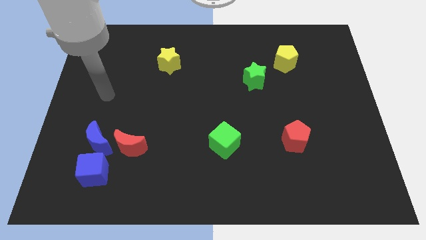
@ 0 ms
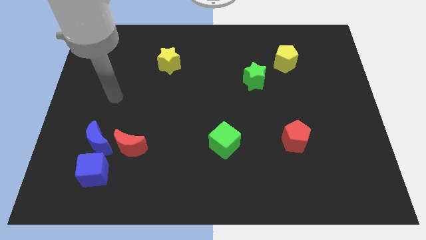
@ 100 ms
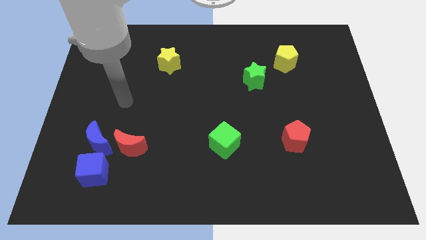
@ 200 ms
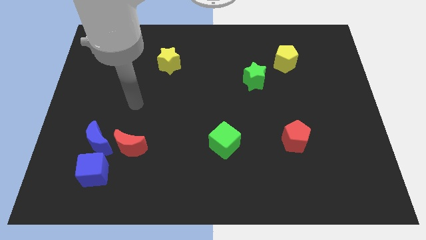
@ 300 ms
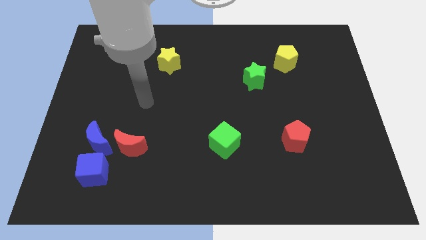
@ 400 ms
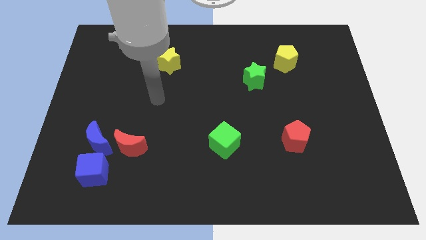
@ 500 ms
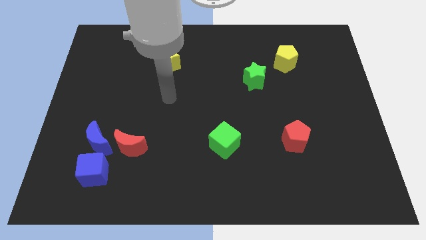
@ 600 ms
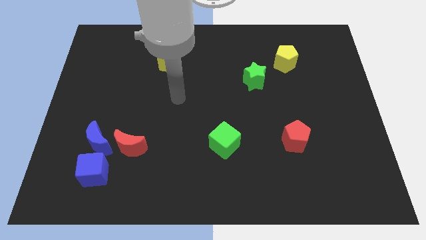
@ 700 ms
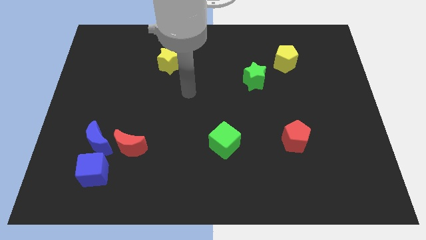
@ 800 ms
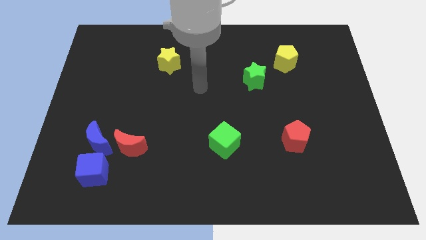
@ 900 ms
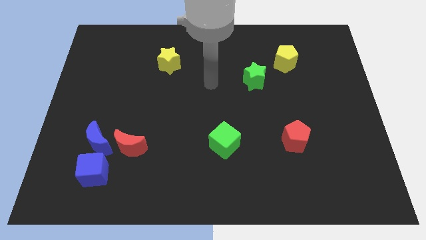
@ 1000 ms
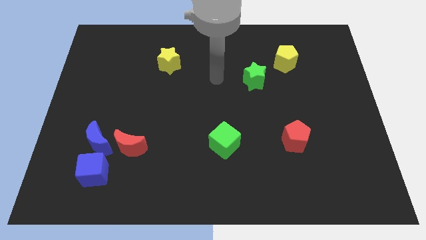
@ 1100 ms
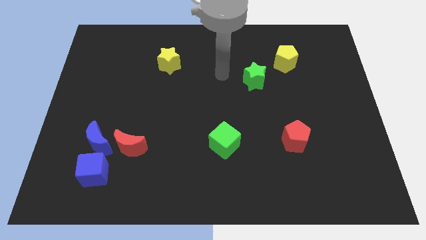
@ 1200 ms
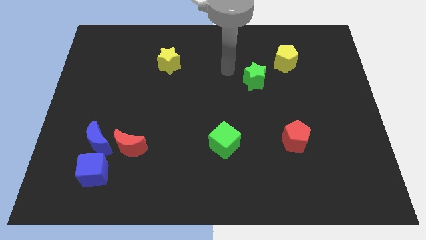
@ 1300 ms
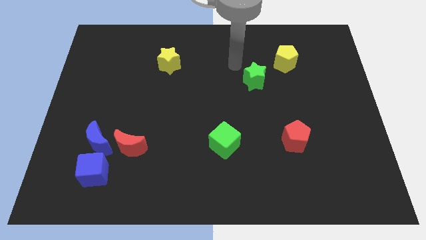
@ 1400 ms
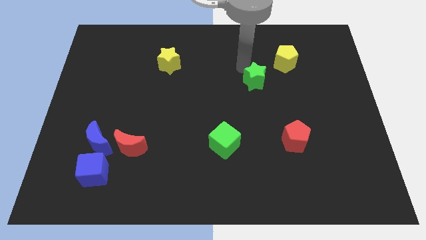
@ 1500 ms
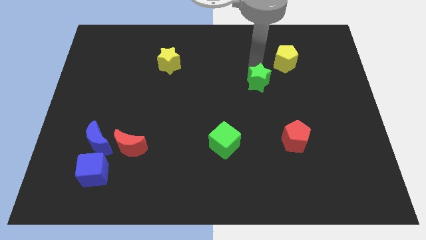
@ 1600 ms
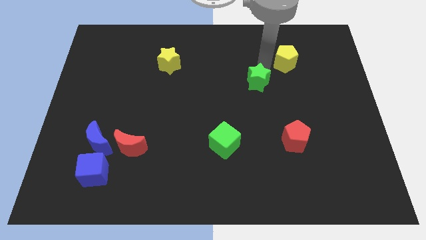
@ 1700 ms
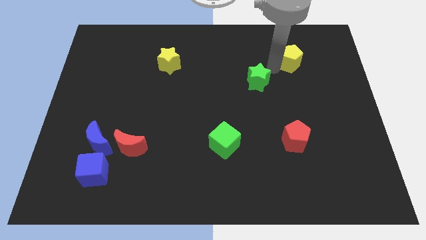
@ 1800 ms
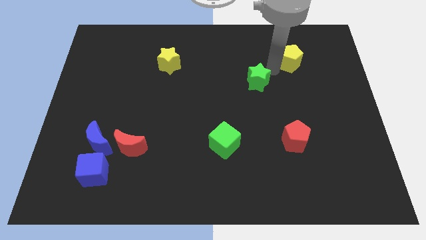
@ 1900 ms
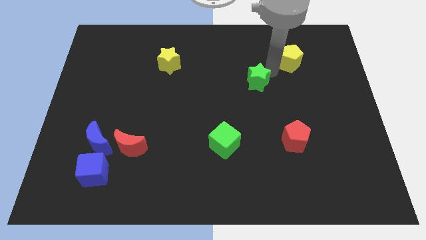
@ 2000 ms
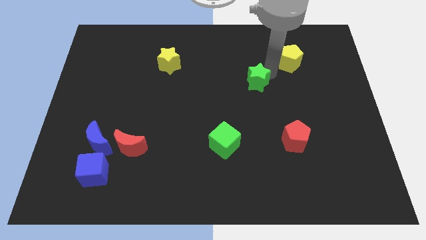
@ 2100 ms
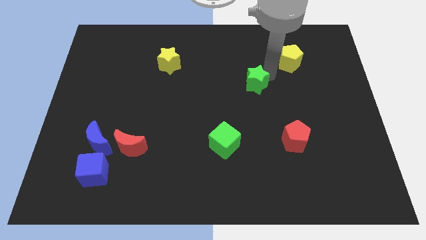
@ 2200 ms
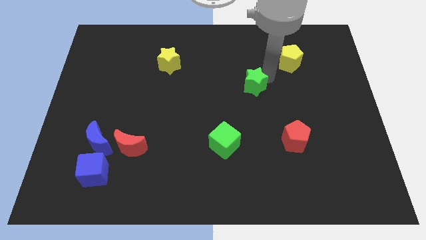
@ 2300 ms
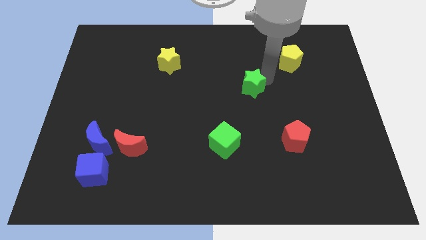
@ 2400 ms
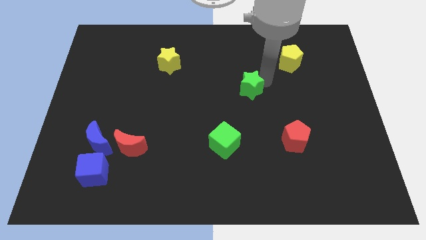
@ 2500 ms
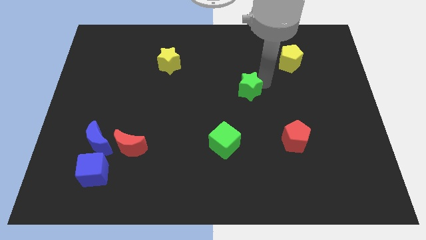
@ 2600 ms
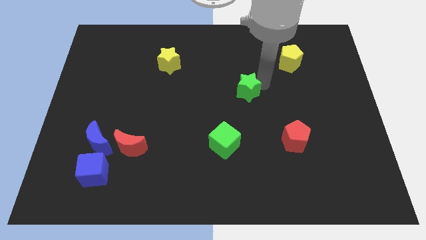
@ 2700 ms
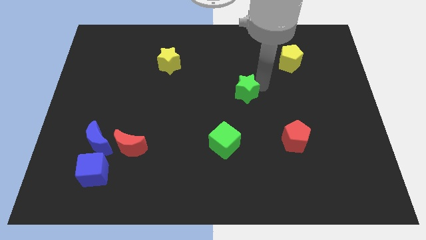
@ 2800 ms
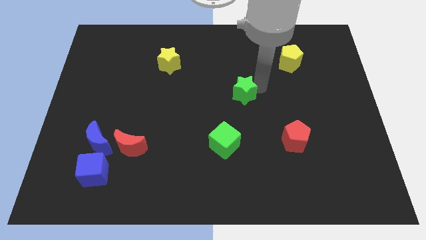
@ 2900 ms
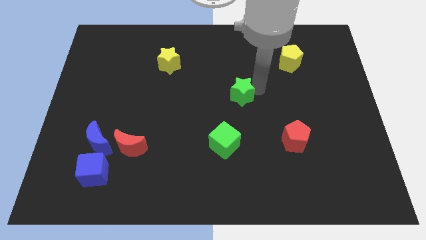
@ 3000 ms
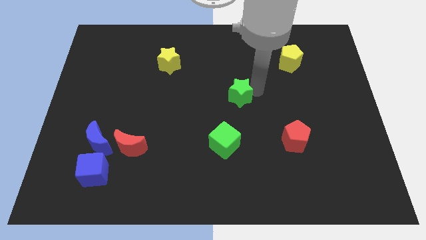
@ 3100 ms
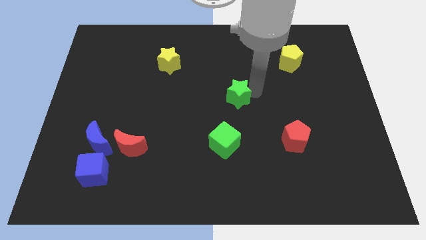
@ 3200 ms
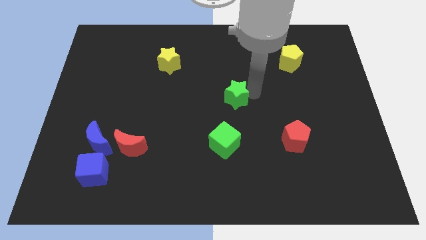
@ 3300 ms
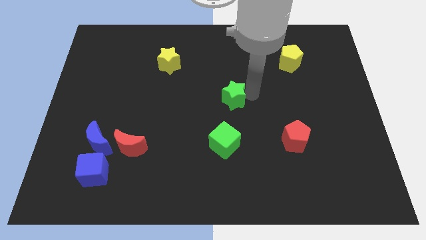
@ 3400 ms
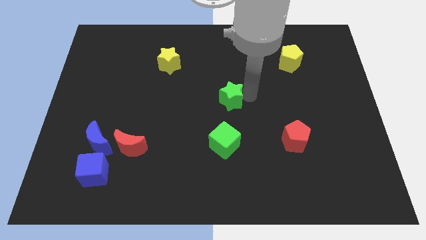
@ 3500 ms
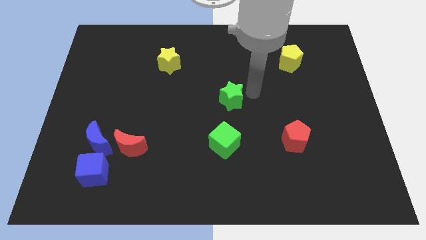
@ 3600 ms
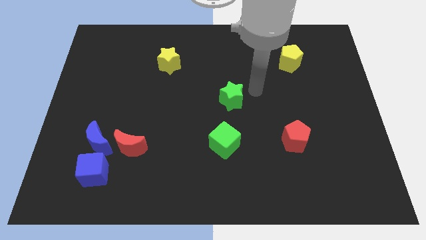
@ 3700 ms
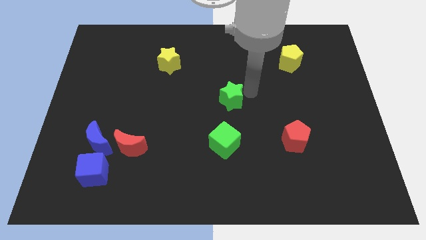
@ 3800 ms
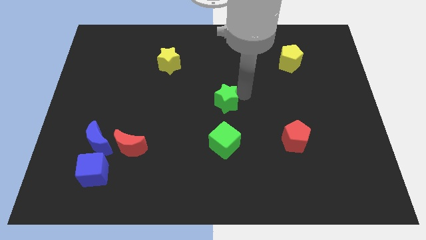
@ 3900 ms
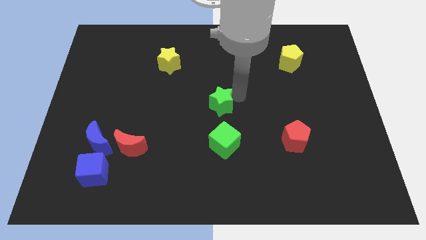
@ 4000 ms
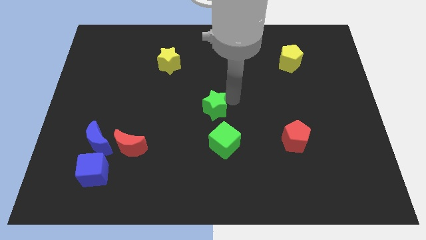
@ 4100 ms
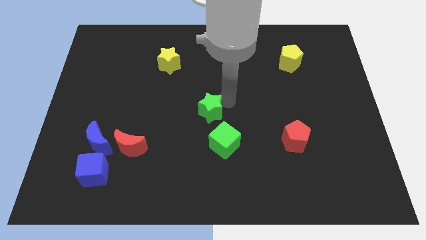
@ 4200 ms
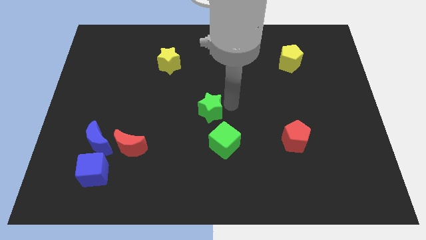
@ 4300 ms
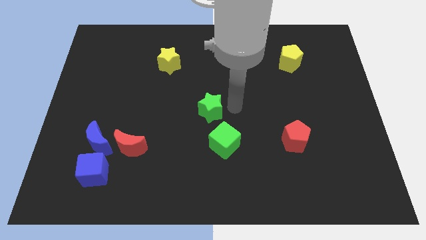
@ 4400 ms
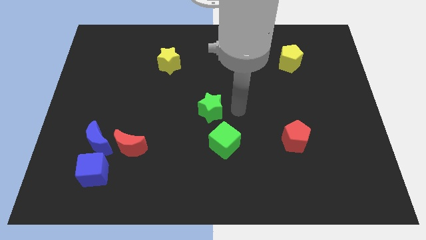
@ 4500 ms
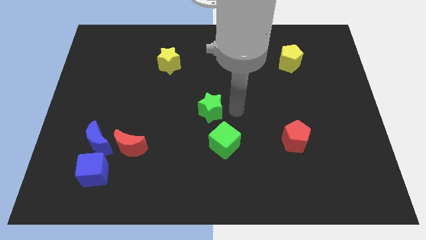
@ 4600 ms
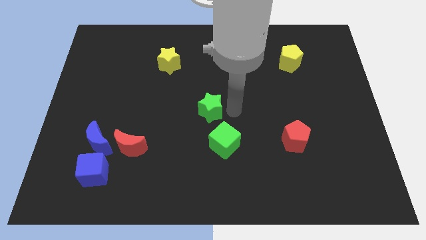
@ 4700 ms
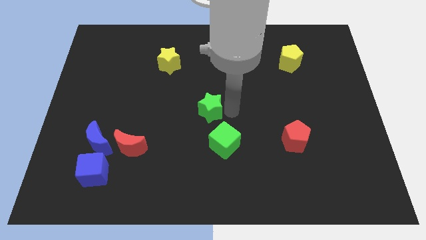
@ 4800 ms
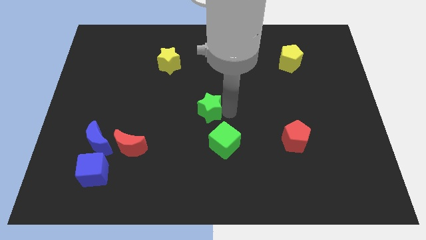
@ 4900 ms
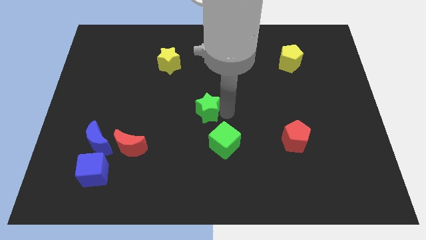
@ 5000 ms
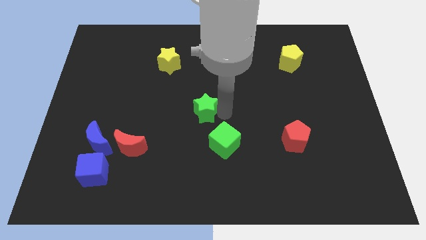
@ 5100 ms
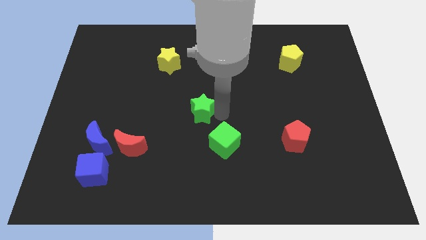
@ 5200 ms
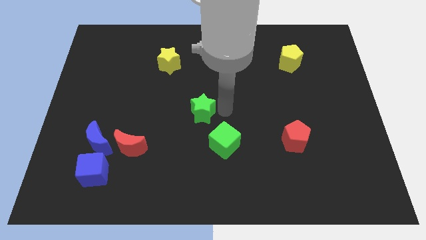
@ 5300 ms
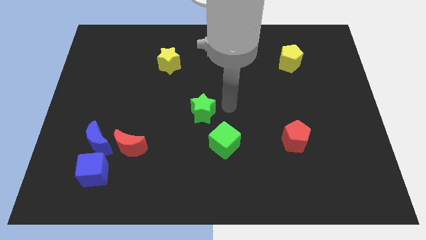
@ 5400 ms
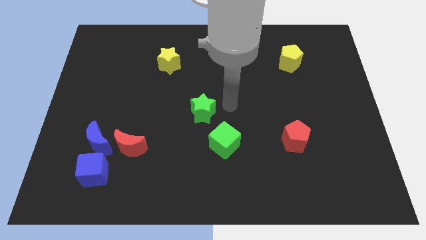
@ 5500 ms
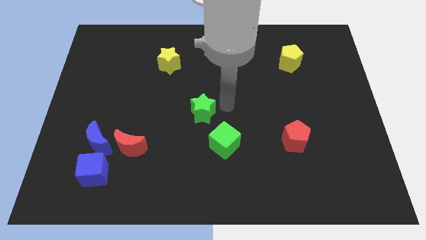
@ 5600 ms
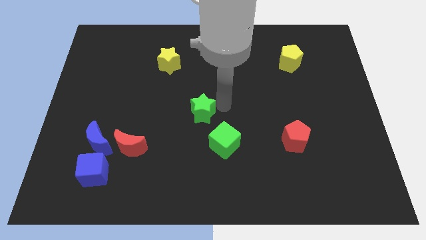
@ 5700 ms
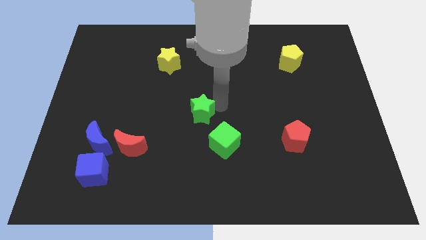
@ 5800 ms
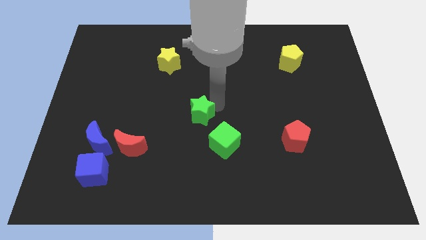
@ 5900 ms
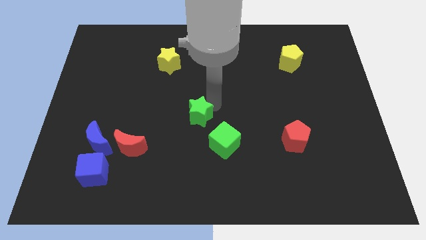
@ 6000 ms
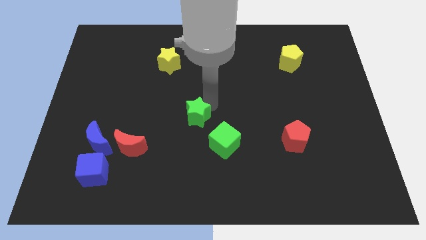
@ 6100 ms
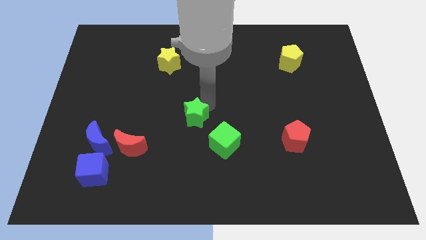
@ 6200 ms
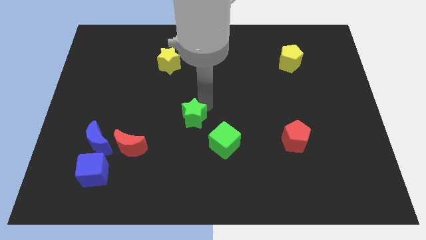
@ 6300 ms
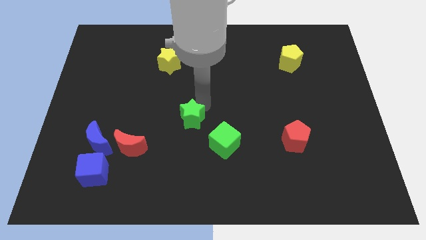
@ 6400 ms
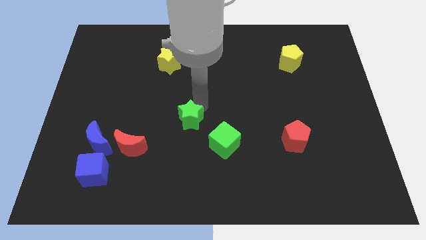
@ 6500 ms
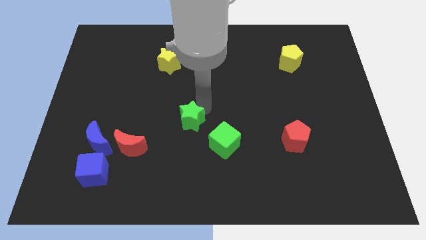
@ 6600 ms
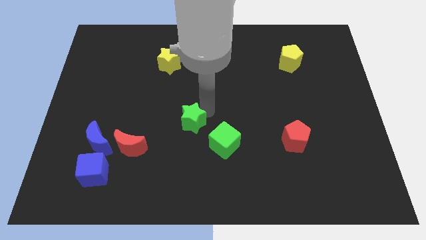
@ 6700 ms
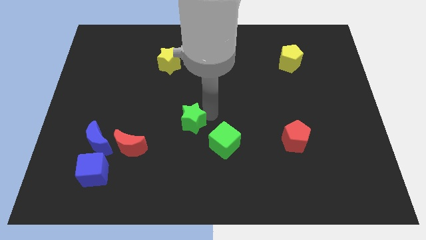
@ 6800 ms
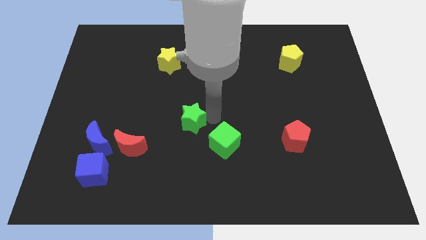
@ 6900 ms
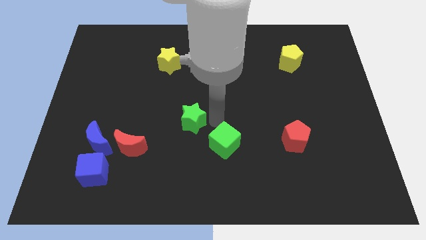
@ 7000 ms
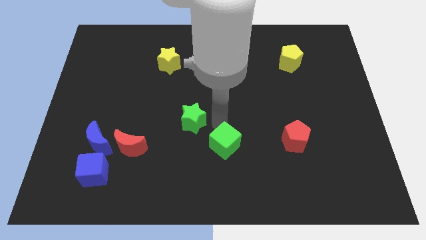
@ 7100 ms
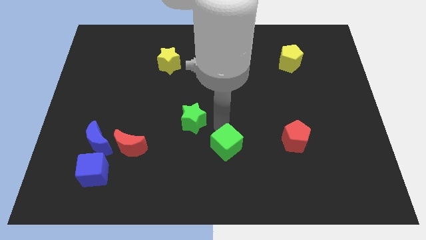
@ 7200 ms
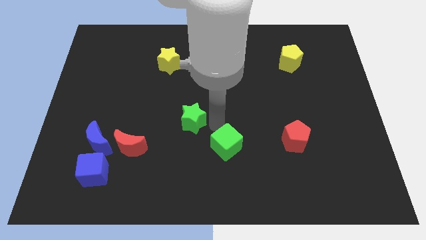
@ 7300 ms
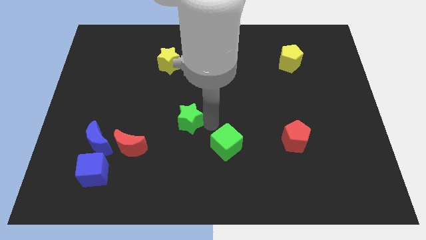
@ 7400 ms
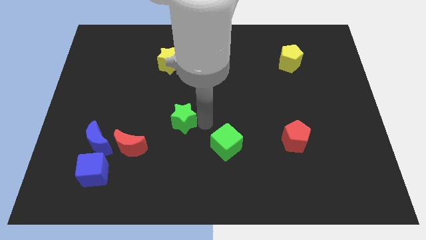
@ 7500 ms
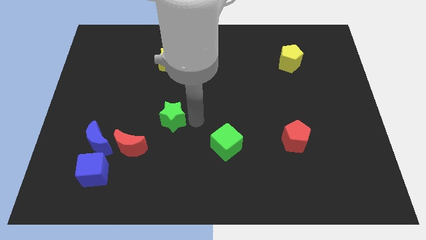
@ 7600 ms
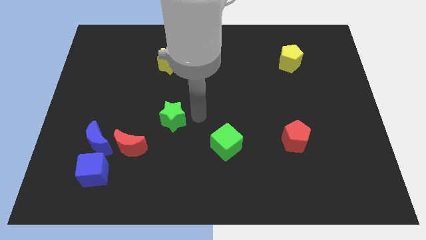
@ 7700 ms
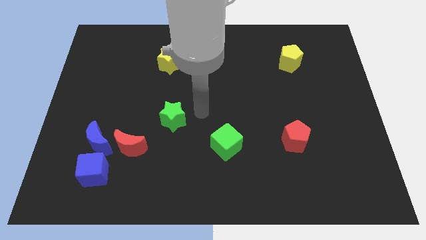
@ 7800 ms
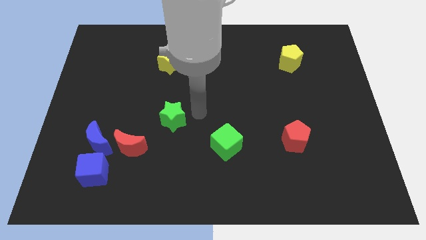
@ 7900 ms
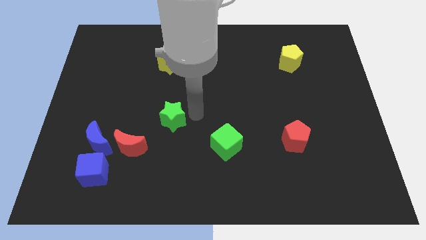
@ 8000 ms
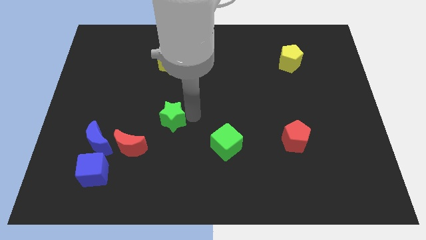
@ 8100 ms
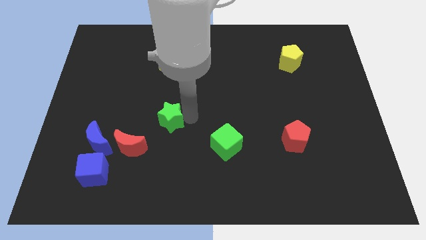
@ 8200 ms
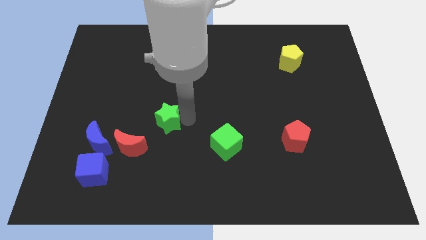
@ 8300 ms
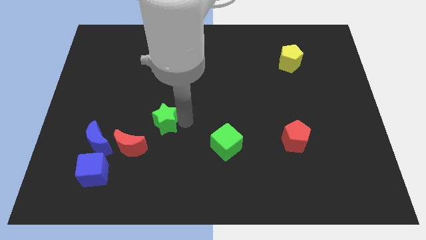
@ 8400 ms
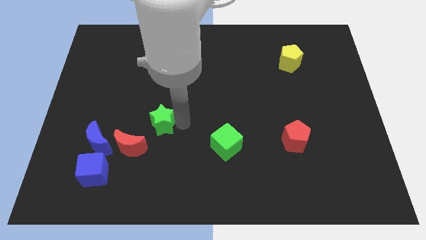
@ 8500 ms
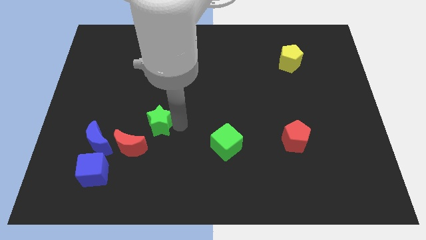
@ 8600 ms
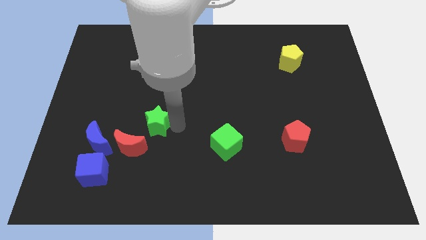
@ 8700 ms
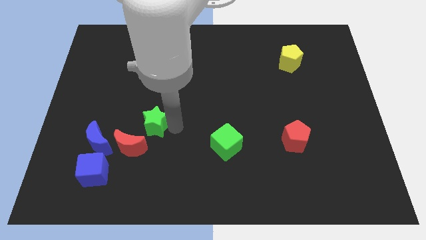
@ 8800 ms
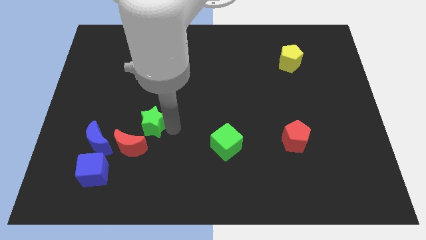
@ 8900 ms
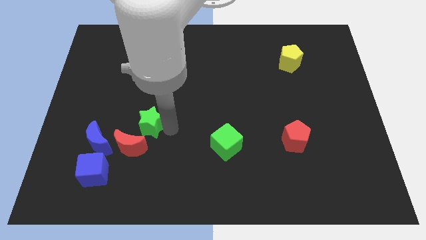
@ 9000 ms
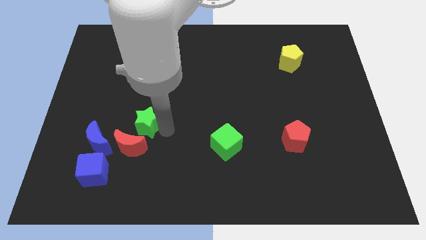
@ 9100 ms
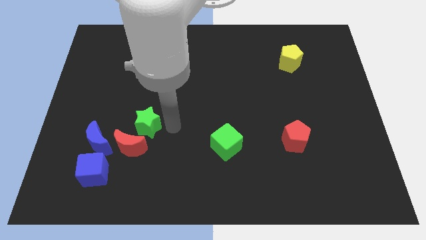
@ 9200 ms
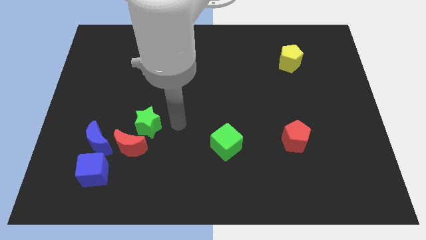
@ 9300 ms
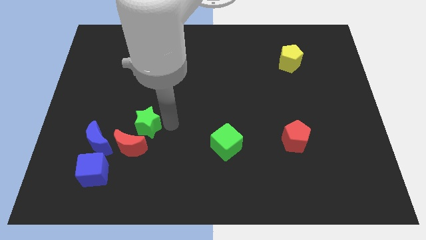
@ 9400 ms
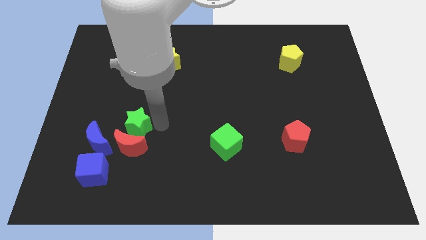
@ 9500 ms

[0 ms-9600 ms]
put the green star to the top left of the red moon
